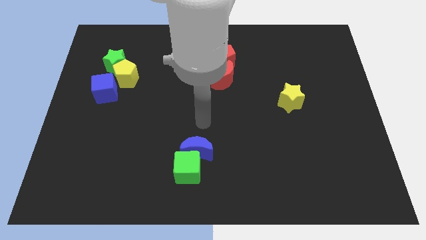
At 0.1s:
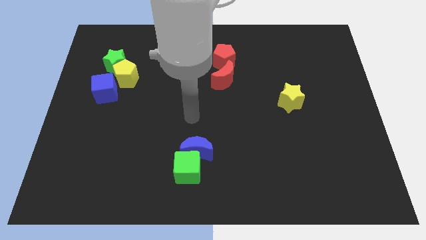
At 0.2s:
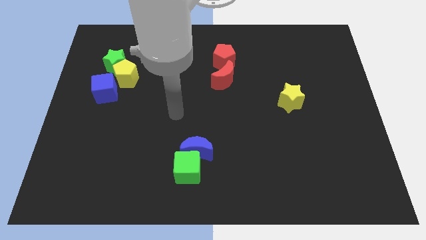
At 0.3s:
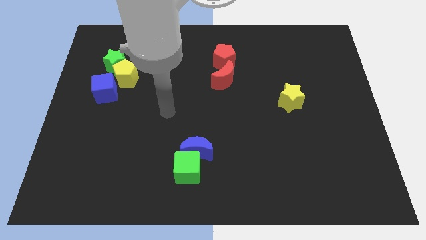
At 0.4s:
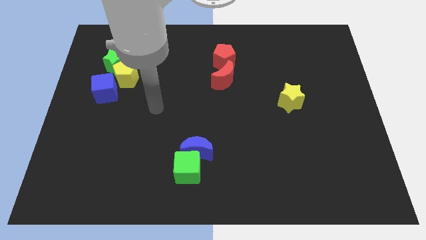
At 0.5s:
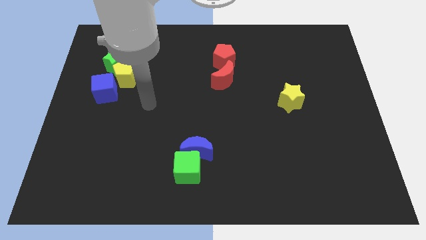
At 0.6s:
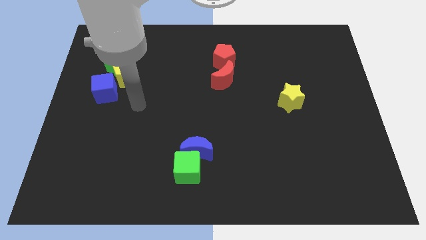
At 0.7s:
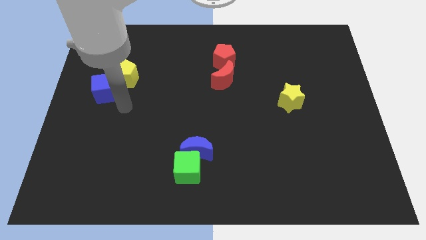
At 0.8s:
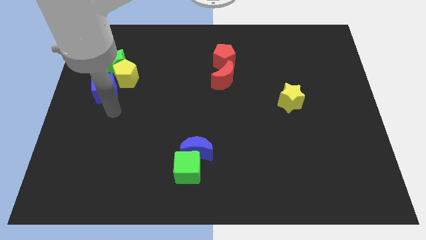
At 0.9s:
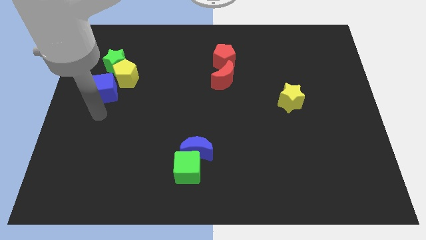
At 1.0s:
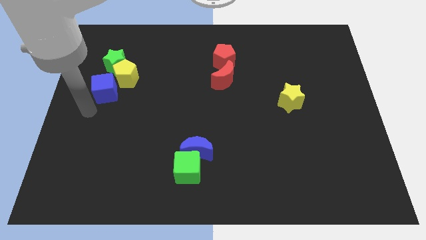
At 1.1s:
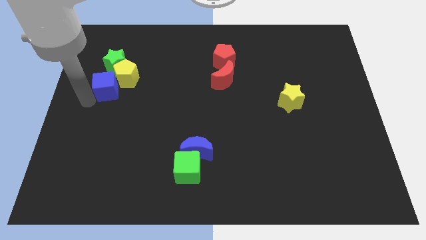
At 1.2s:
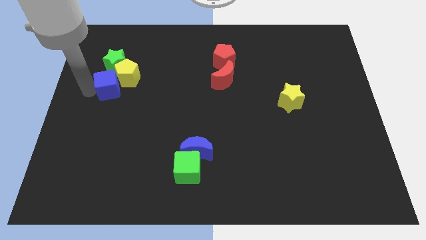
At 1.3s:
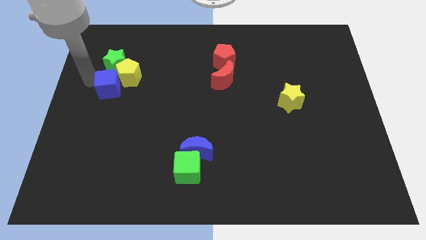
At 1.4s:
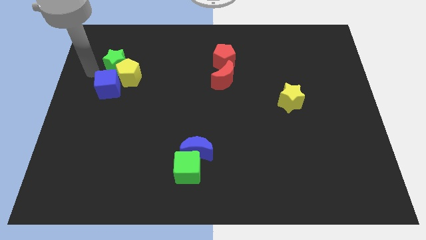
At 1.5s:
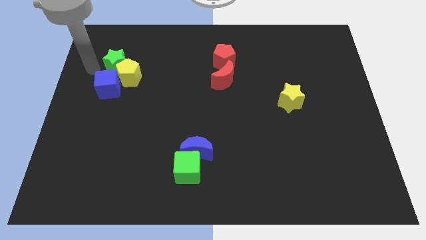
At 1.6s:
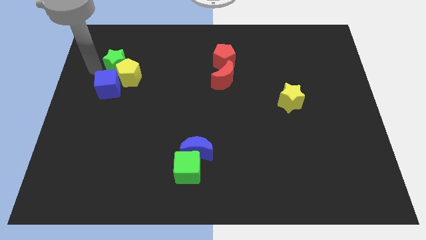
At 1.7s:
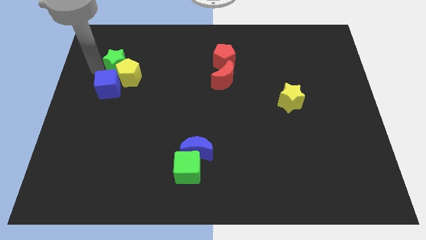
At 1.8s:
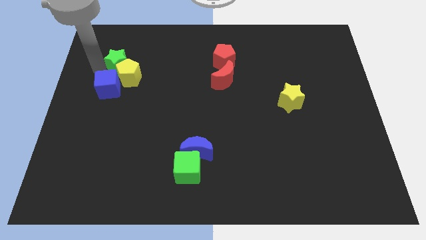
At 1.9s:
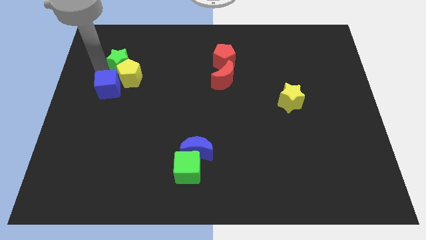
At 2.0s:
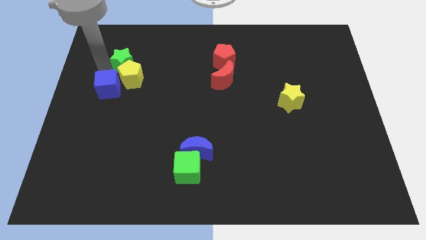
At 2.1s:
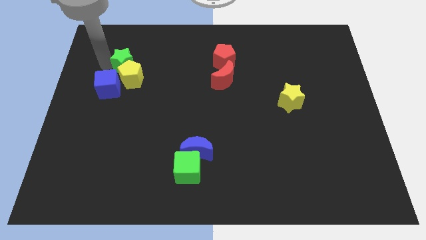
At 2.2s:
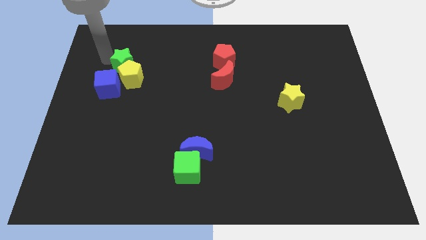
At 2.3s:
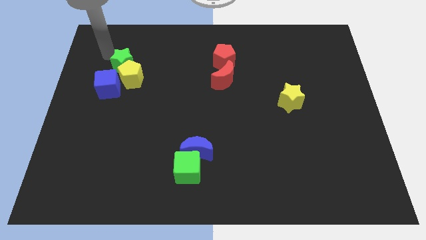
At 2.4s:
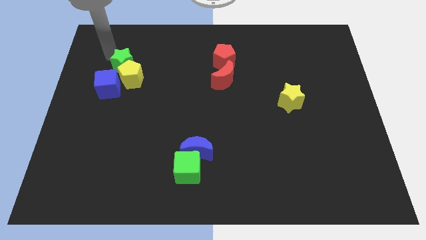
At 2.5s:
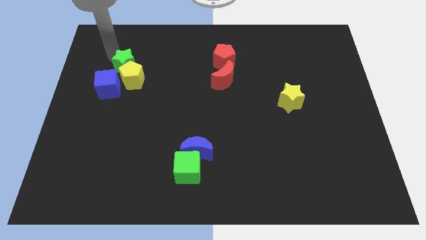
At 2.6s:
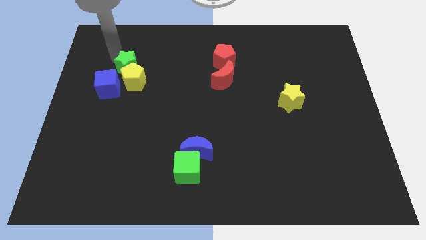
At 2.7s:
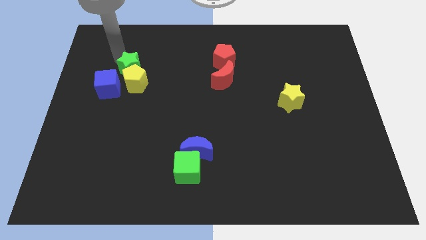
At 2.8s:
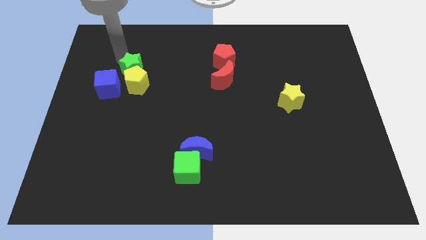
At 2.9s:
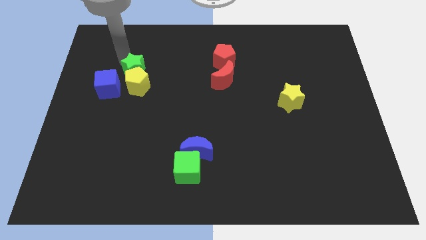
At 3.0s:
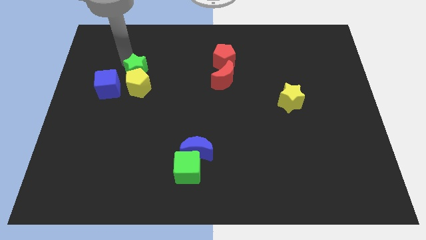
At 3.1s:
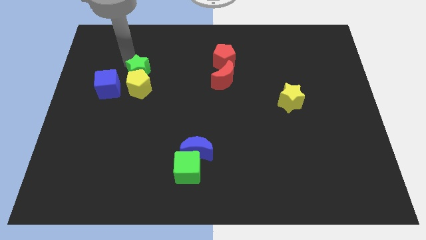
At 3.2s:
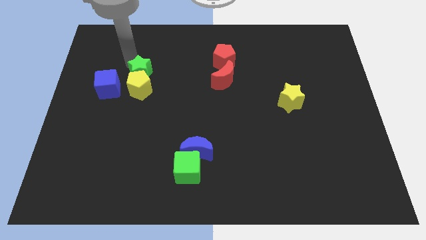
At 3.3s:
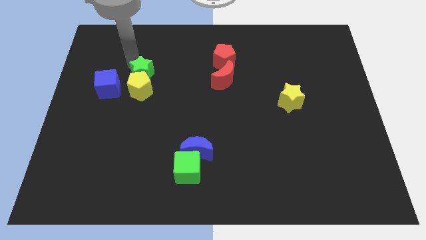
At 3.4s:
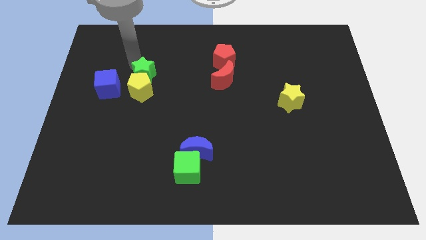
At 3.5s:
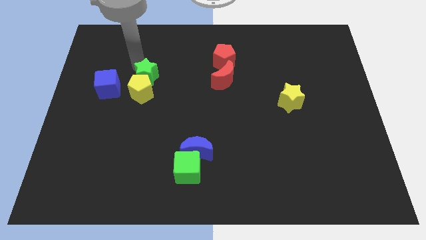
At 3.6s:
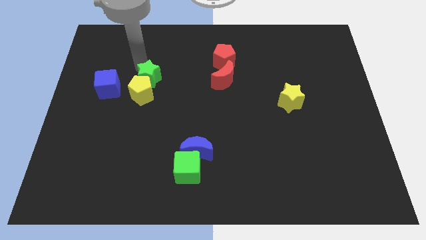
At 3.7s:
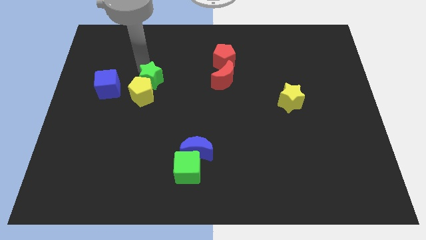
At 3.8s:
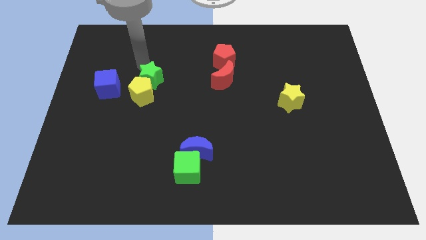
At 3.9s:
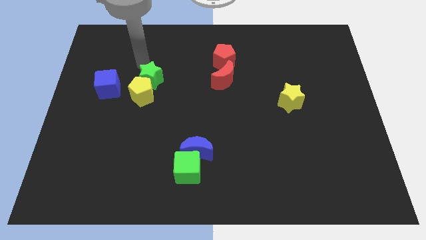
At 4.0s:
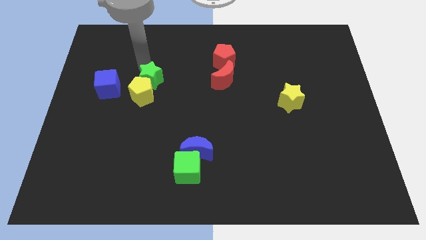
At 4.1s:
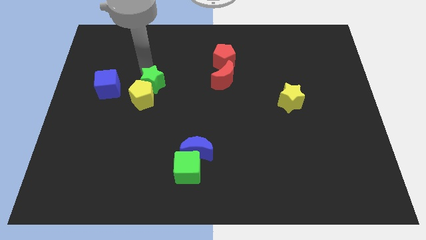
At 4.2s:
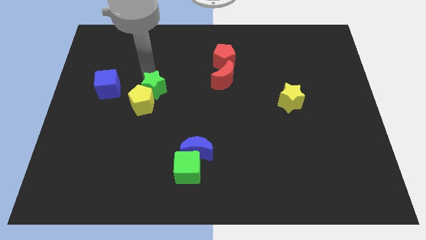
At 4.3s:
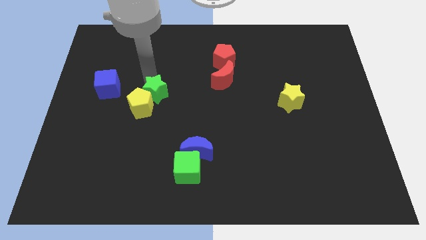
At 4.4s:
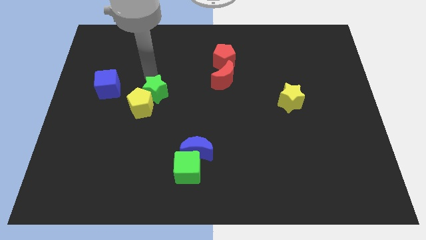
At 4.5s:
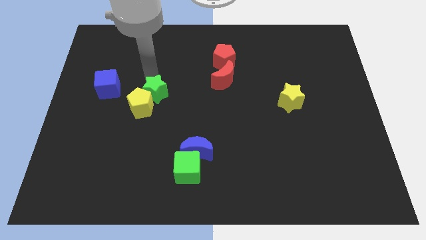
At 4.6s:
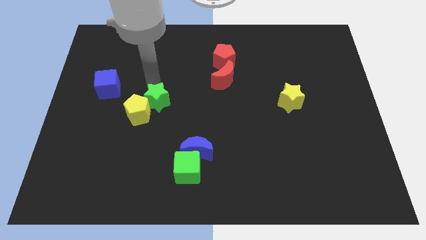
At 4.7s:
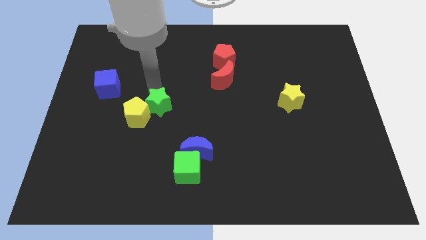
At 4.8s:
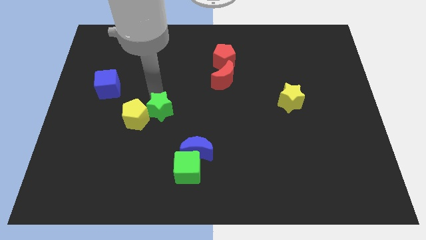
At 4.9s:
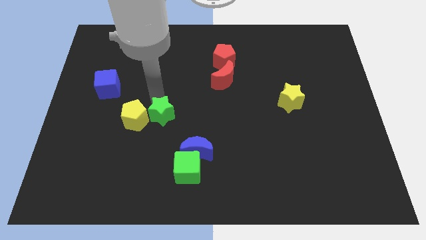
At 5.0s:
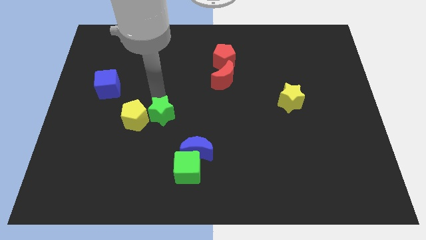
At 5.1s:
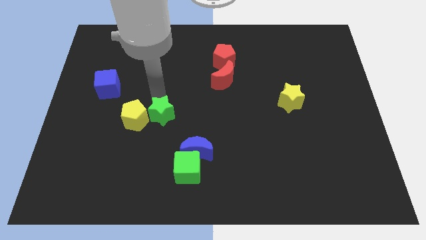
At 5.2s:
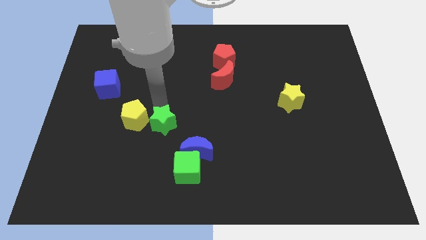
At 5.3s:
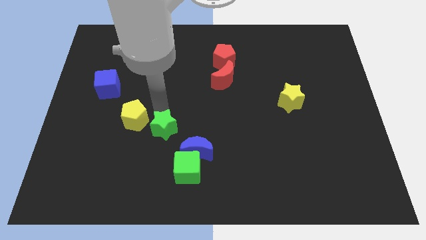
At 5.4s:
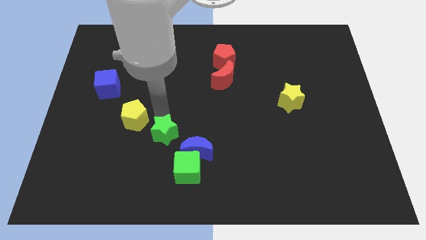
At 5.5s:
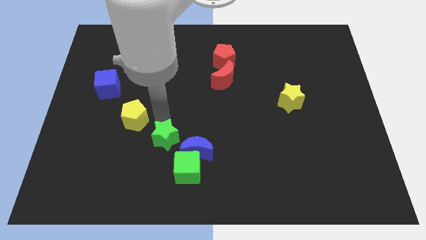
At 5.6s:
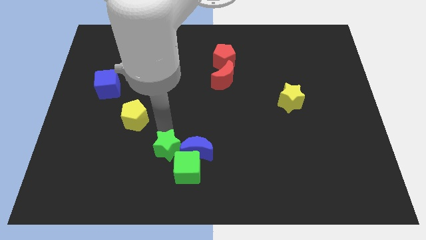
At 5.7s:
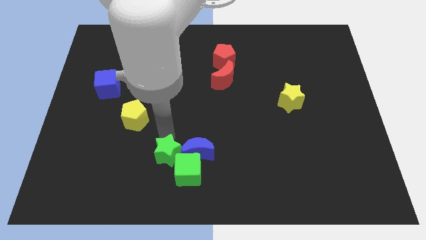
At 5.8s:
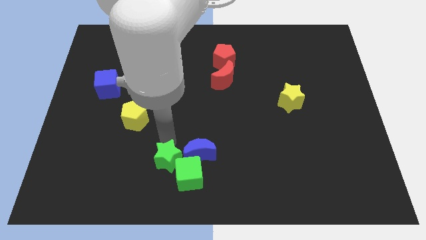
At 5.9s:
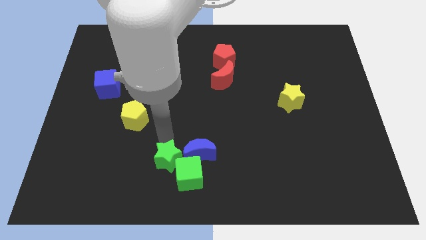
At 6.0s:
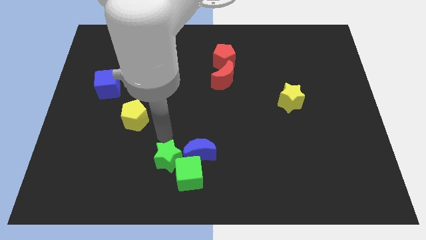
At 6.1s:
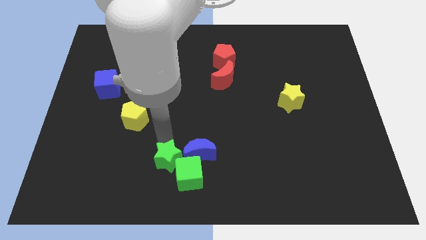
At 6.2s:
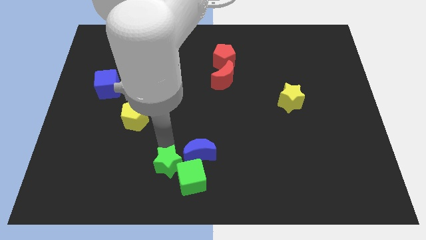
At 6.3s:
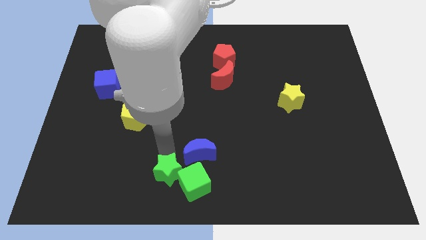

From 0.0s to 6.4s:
slide the green star to the bottom

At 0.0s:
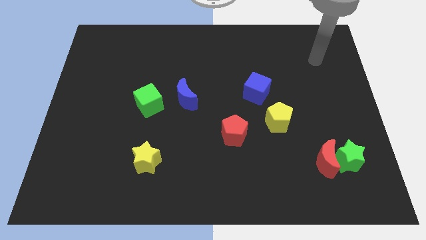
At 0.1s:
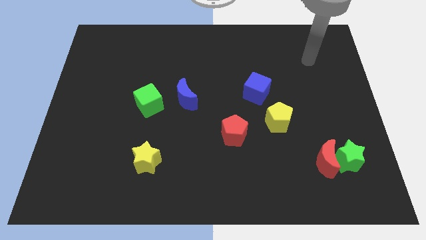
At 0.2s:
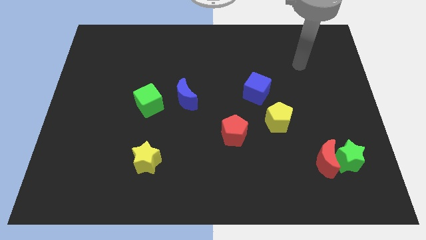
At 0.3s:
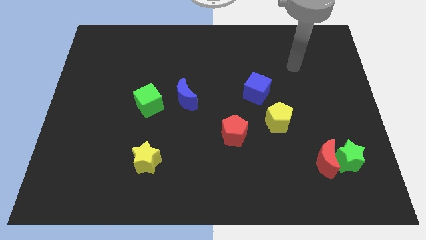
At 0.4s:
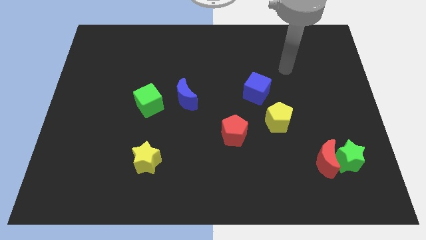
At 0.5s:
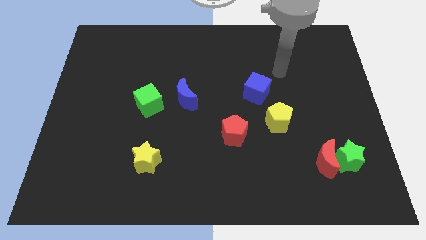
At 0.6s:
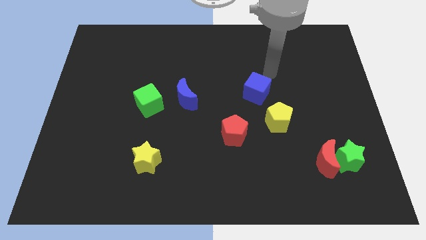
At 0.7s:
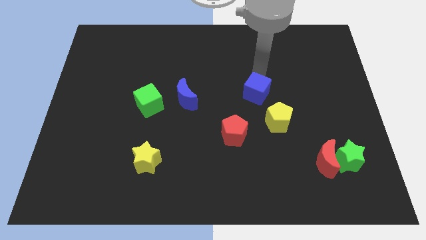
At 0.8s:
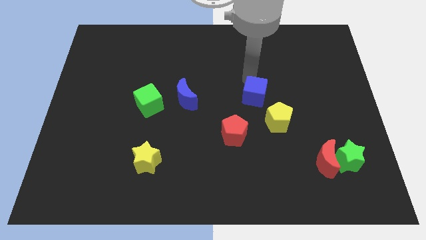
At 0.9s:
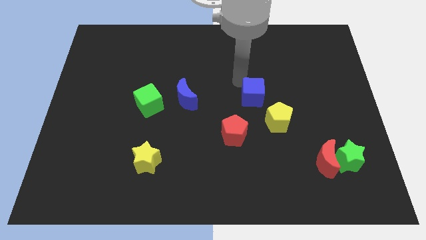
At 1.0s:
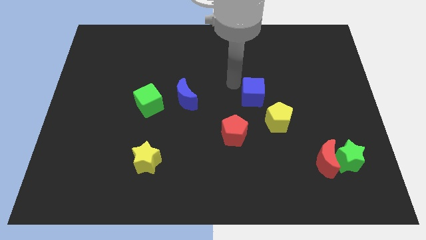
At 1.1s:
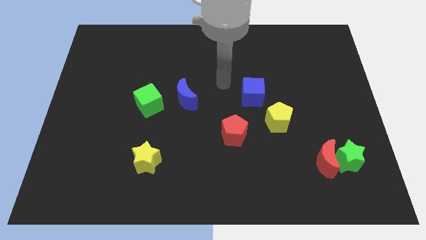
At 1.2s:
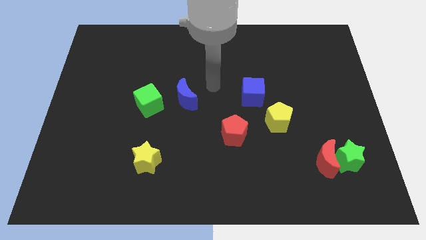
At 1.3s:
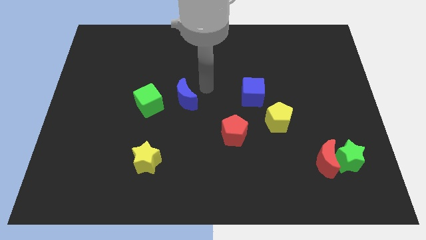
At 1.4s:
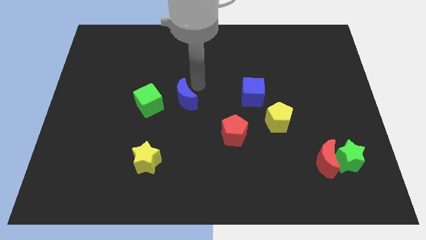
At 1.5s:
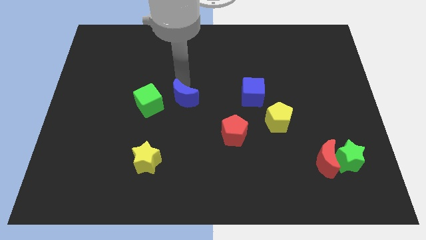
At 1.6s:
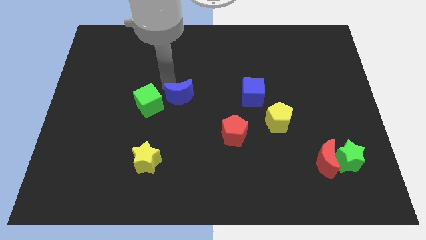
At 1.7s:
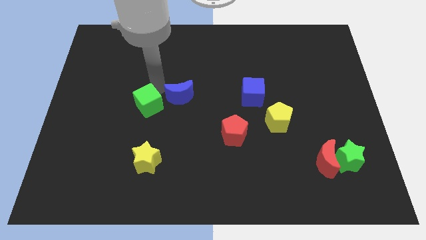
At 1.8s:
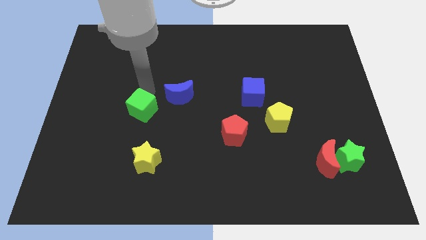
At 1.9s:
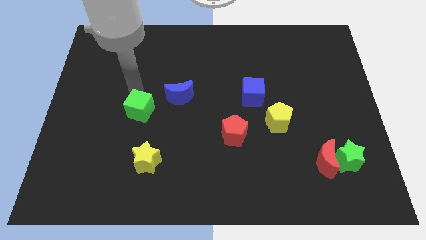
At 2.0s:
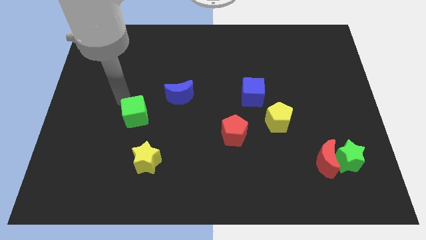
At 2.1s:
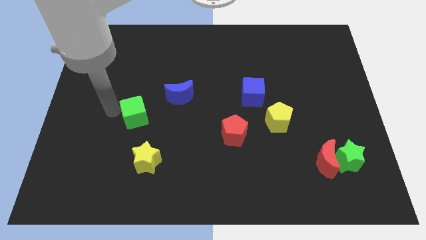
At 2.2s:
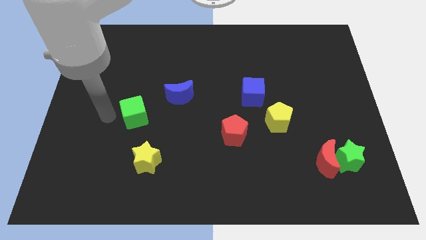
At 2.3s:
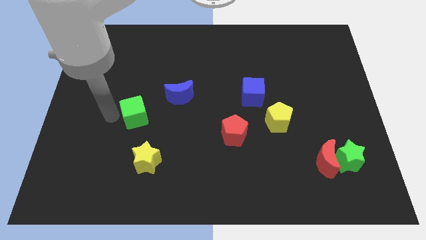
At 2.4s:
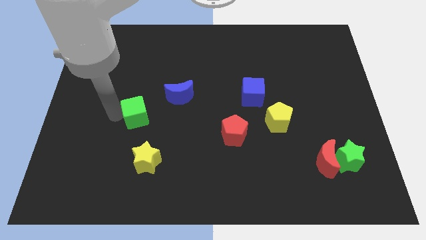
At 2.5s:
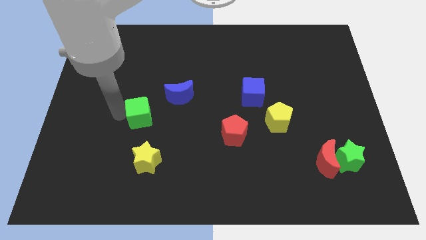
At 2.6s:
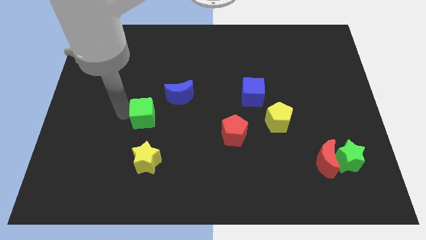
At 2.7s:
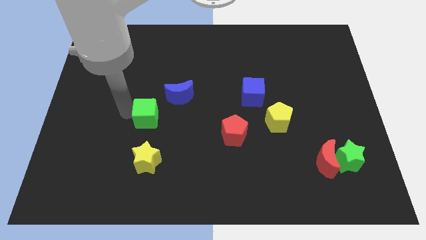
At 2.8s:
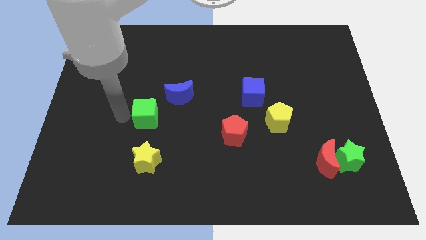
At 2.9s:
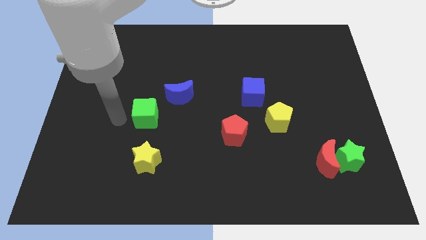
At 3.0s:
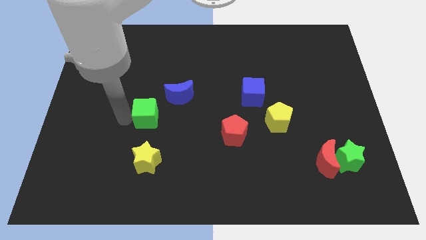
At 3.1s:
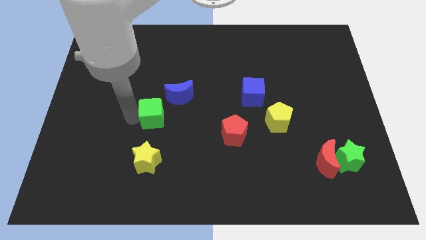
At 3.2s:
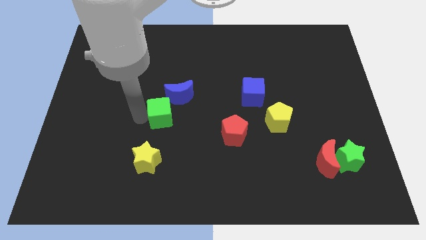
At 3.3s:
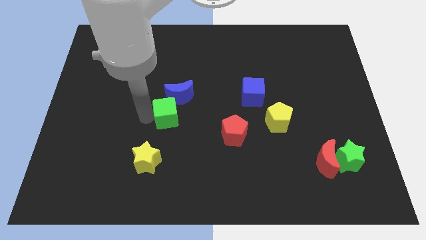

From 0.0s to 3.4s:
slide the green cube to the center of the board
